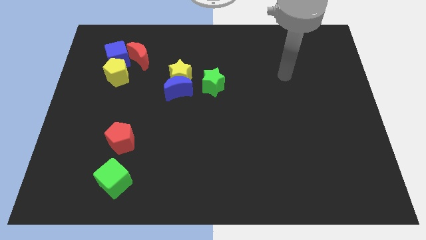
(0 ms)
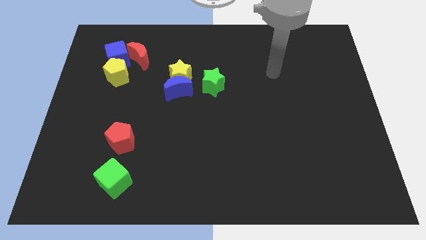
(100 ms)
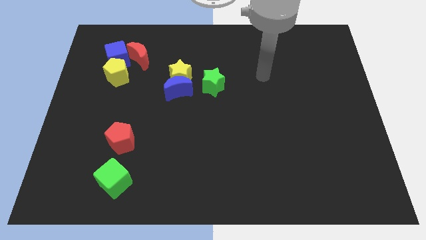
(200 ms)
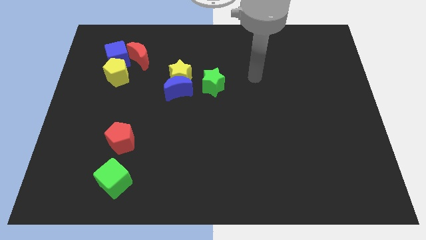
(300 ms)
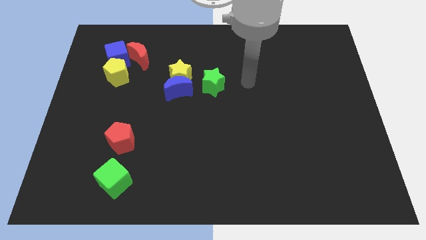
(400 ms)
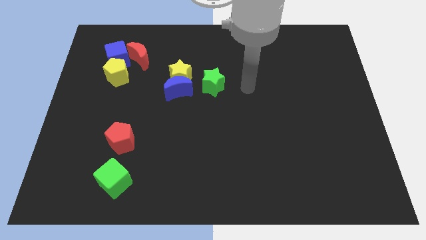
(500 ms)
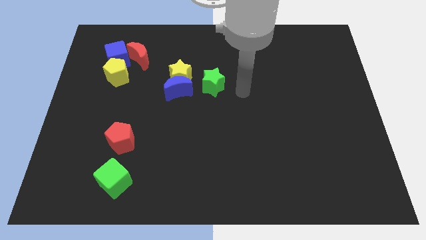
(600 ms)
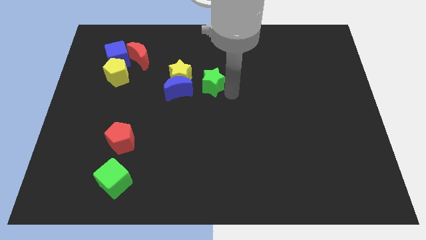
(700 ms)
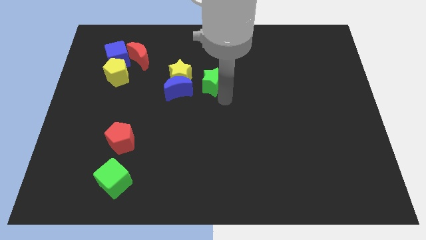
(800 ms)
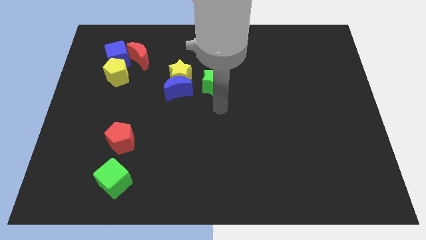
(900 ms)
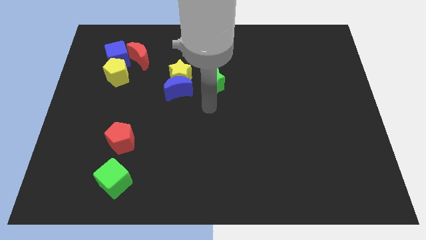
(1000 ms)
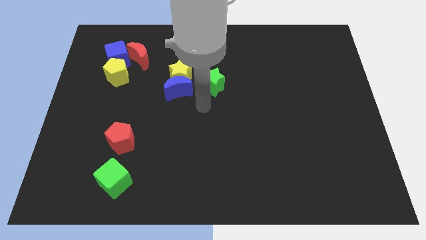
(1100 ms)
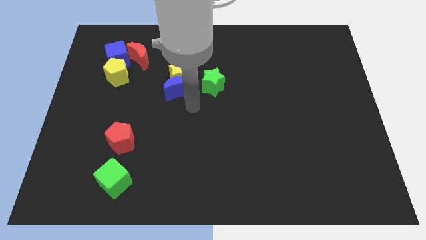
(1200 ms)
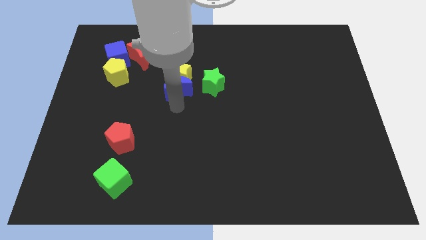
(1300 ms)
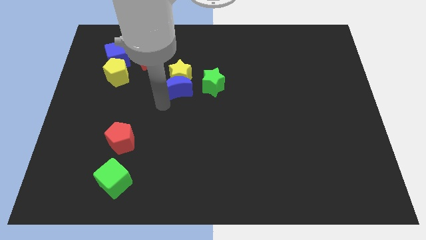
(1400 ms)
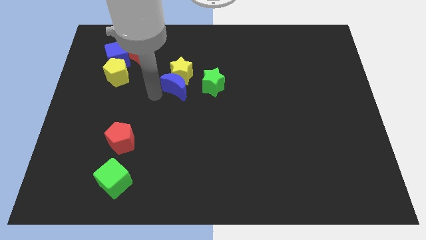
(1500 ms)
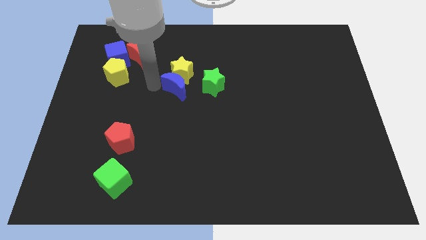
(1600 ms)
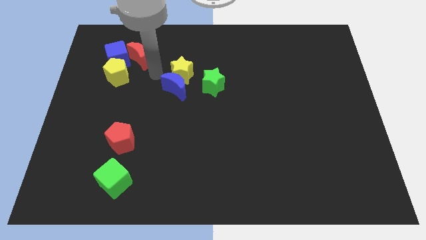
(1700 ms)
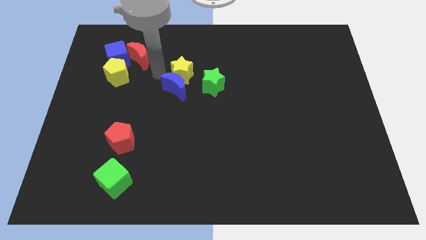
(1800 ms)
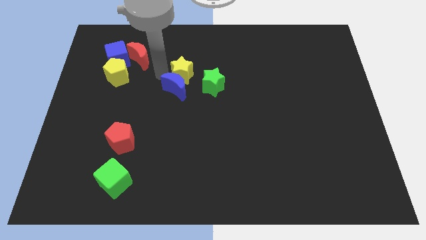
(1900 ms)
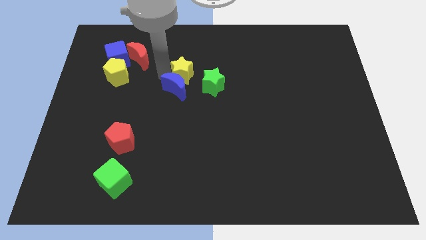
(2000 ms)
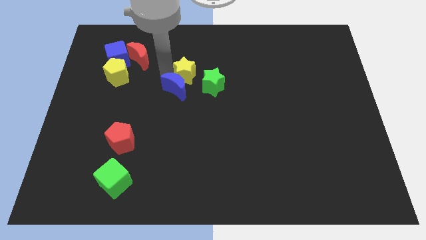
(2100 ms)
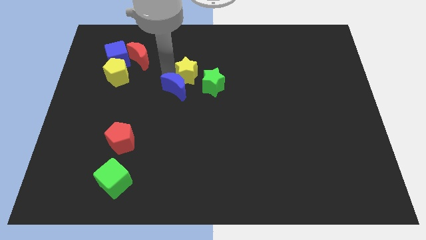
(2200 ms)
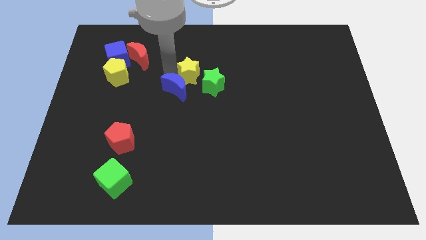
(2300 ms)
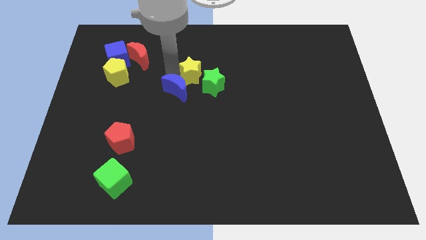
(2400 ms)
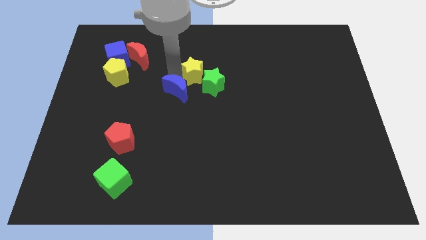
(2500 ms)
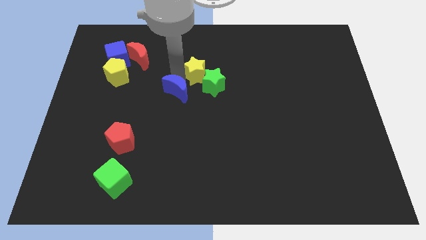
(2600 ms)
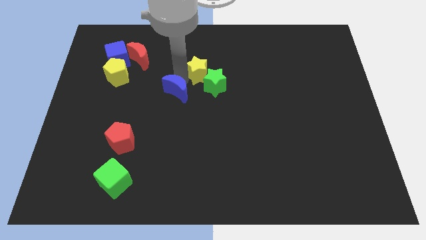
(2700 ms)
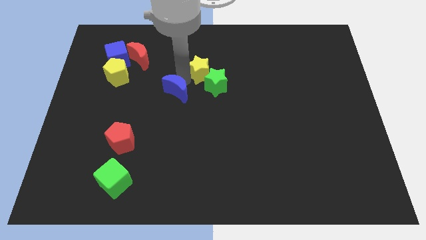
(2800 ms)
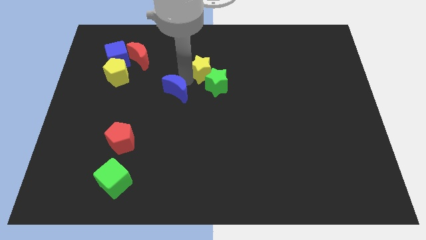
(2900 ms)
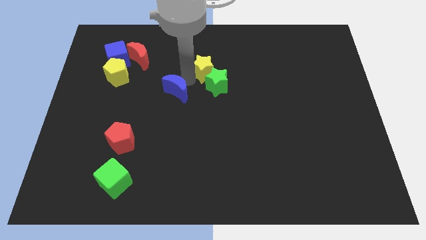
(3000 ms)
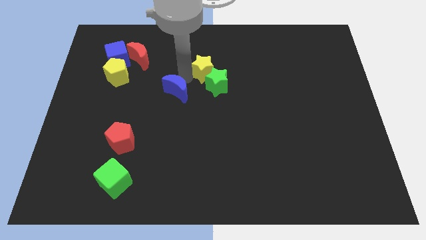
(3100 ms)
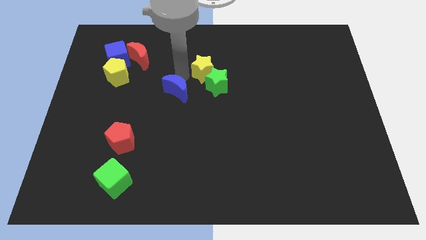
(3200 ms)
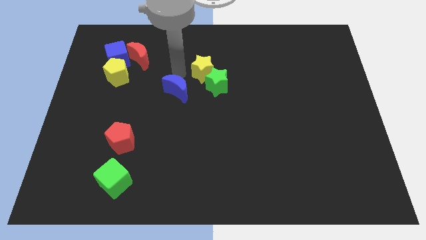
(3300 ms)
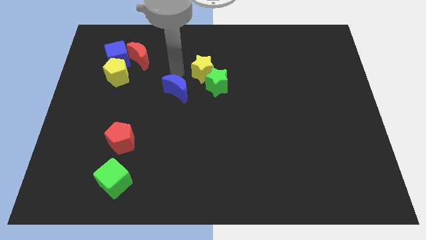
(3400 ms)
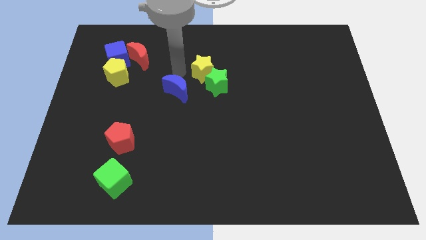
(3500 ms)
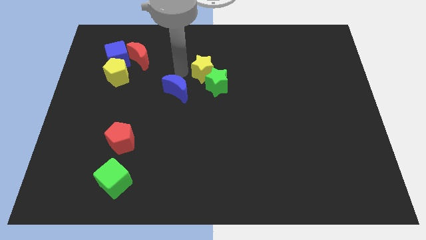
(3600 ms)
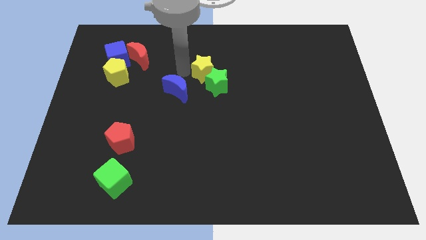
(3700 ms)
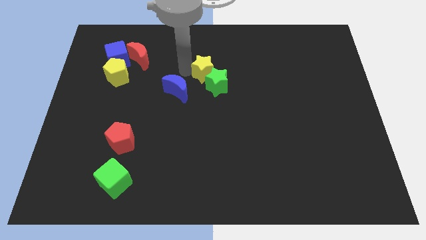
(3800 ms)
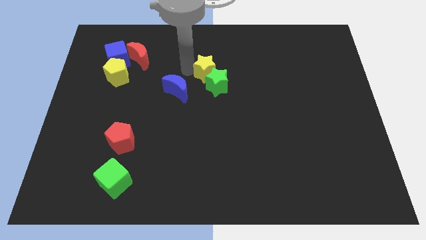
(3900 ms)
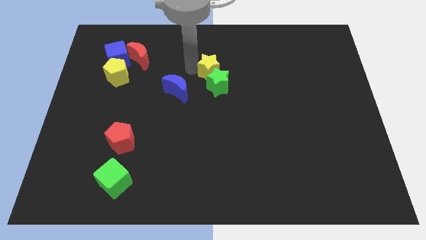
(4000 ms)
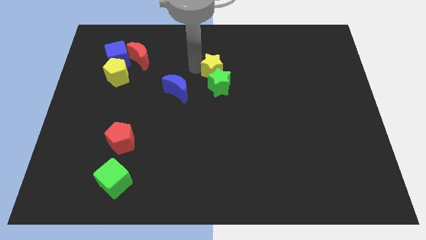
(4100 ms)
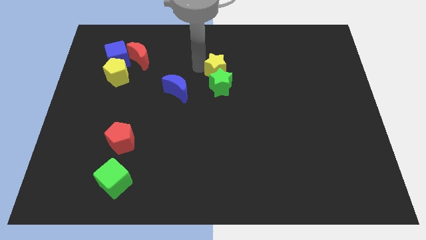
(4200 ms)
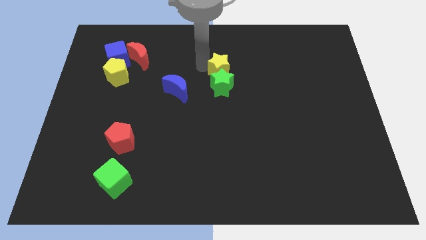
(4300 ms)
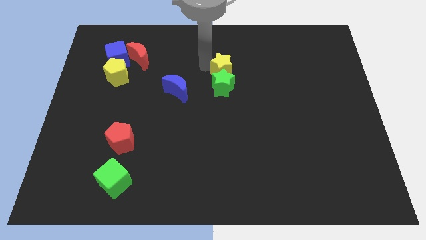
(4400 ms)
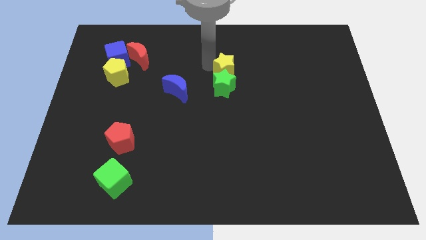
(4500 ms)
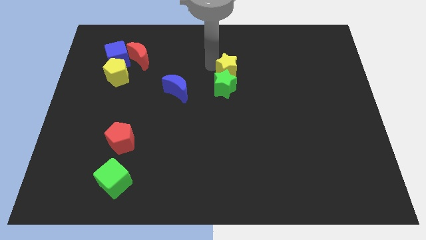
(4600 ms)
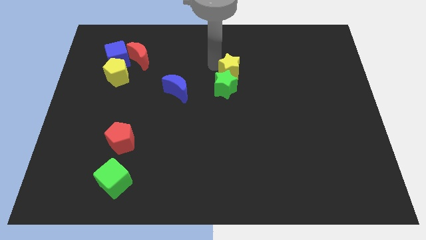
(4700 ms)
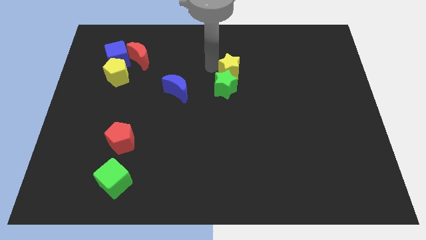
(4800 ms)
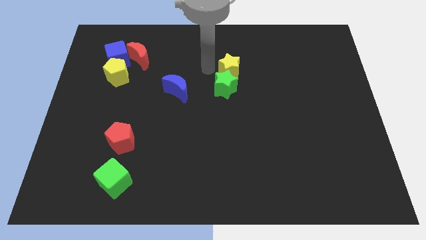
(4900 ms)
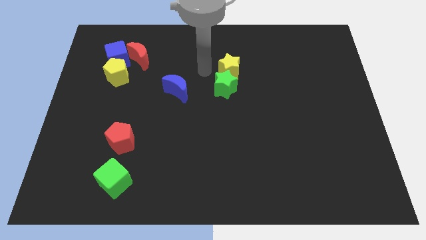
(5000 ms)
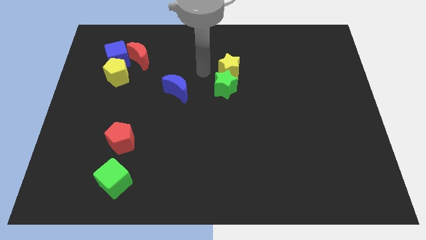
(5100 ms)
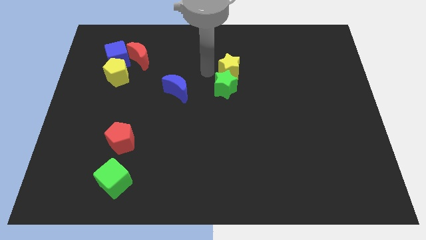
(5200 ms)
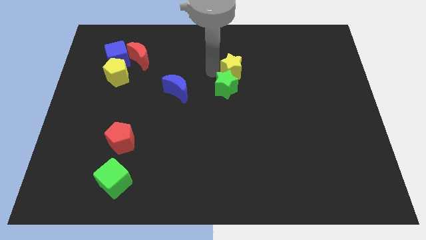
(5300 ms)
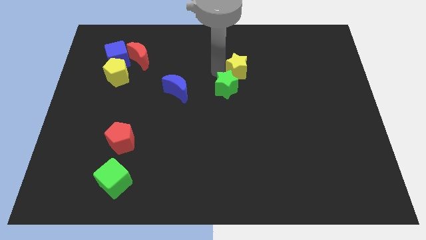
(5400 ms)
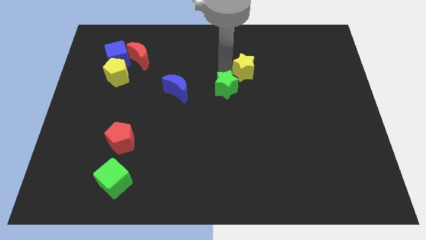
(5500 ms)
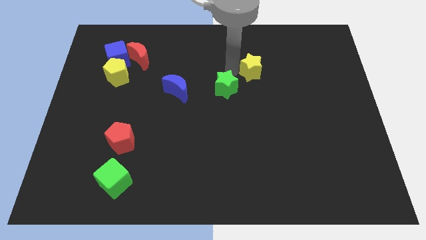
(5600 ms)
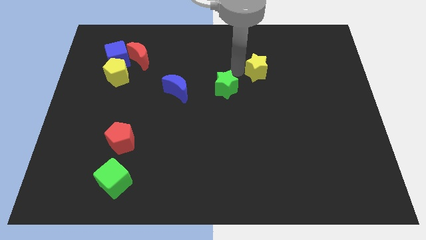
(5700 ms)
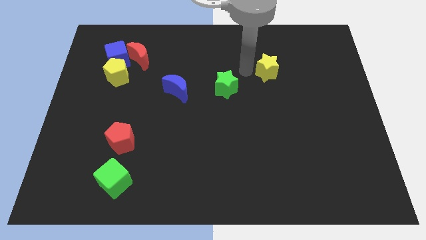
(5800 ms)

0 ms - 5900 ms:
move the yellow star right

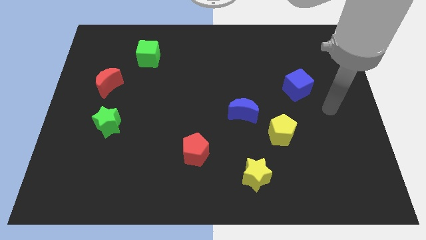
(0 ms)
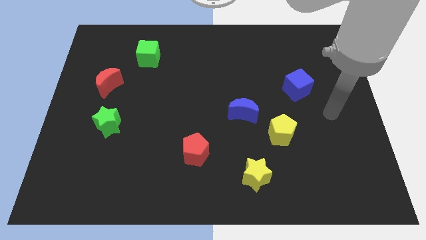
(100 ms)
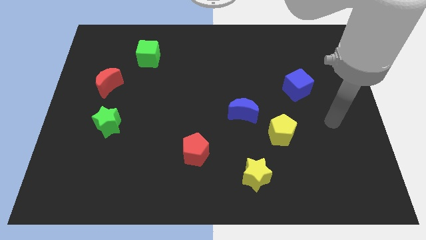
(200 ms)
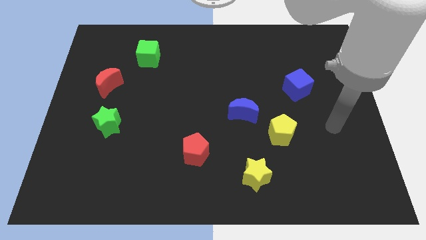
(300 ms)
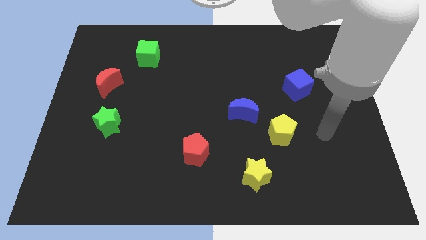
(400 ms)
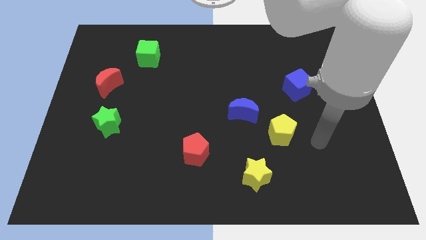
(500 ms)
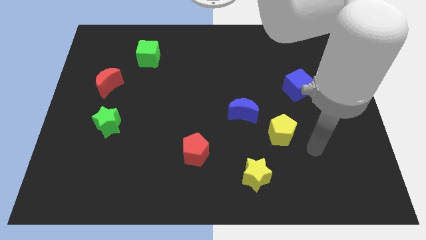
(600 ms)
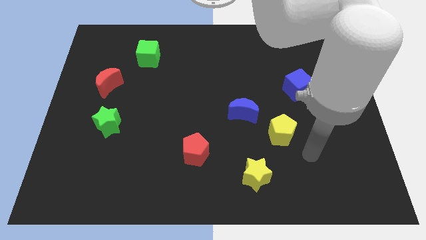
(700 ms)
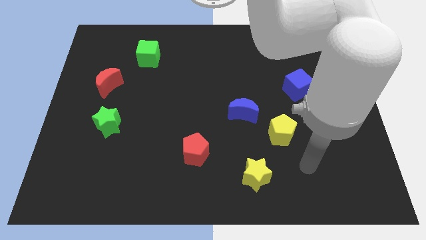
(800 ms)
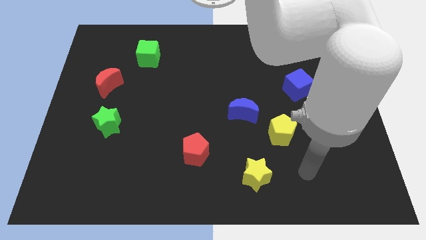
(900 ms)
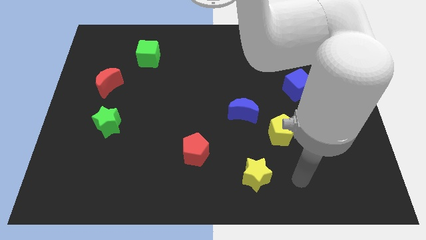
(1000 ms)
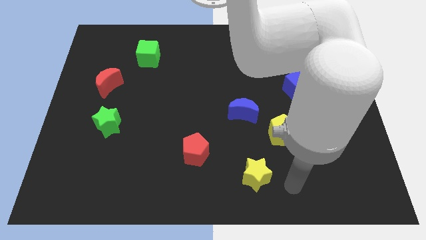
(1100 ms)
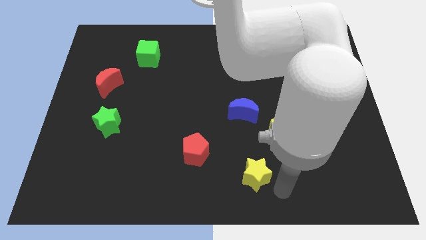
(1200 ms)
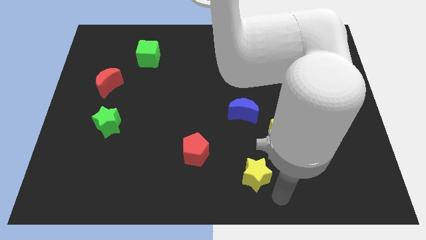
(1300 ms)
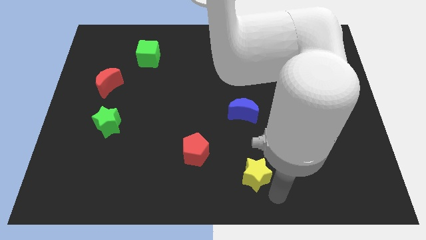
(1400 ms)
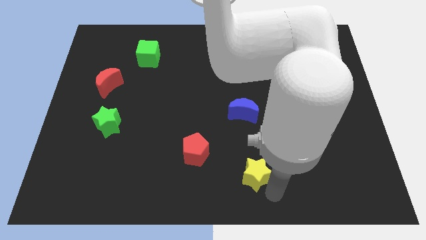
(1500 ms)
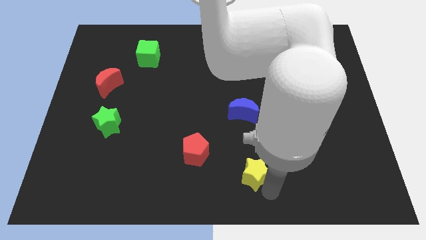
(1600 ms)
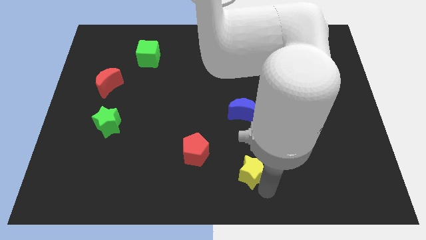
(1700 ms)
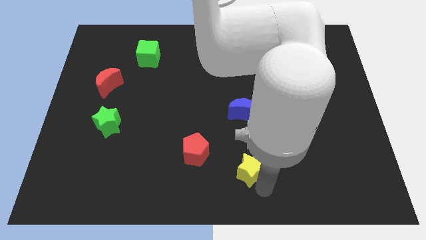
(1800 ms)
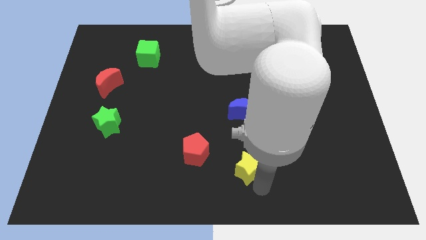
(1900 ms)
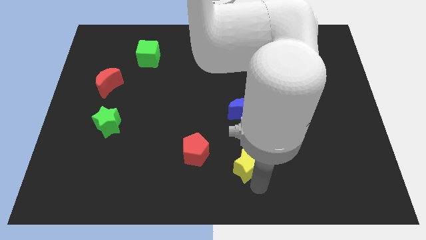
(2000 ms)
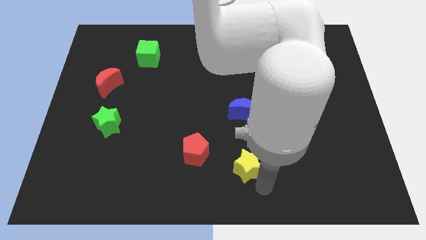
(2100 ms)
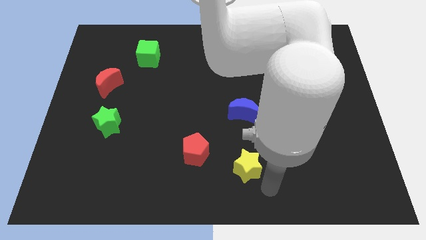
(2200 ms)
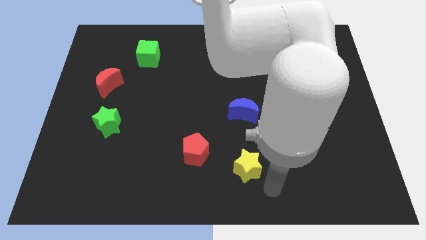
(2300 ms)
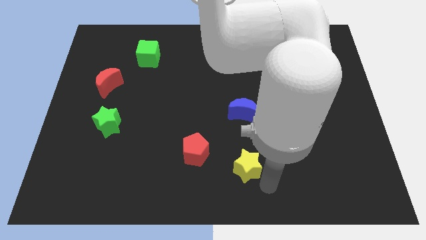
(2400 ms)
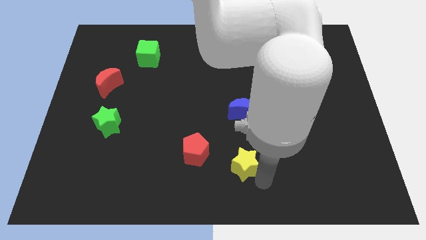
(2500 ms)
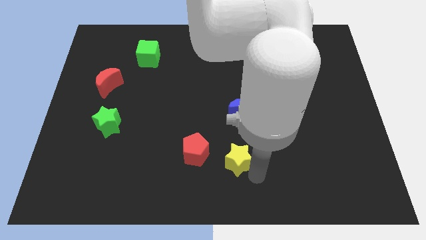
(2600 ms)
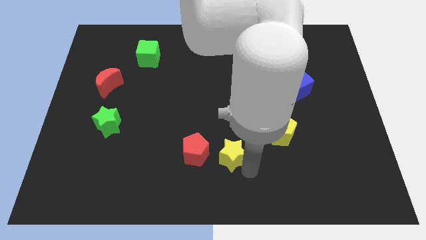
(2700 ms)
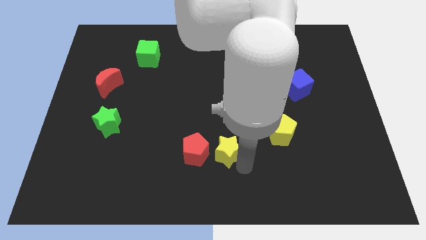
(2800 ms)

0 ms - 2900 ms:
move the yellow star a little diagonally up and to the left
